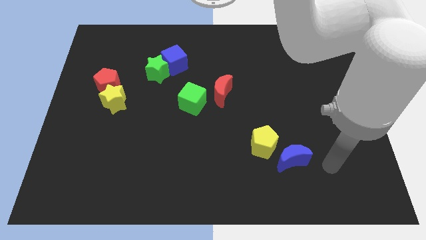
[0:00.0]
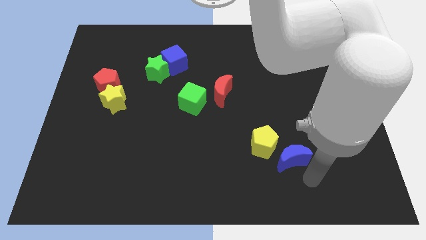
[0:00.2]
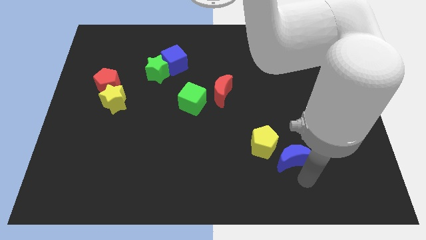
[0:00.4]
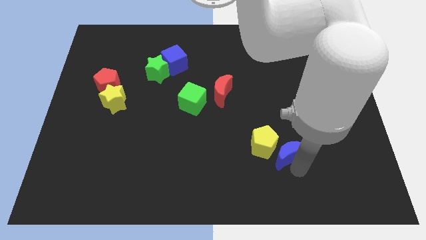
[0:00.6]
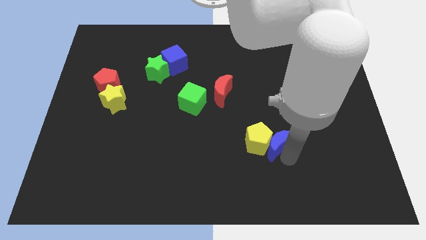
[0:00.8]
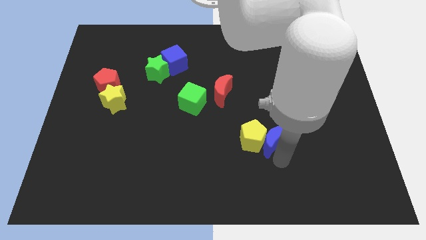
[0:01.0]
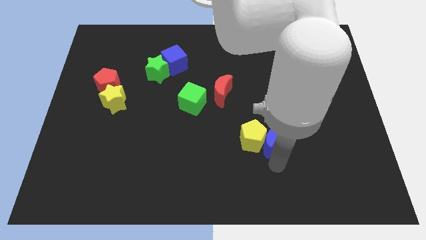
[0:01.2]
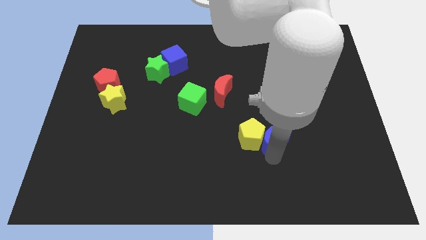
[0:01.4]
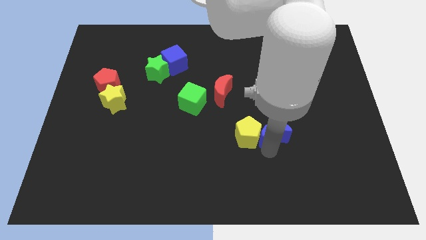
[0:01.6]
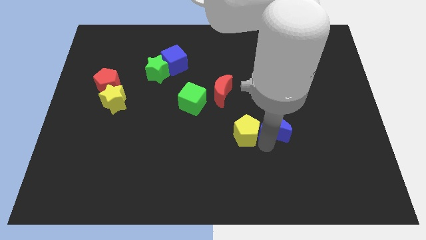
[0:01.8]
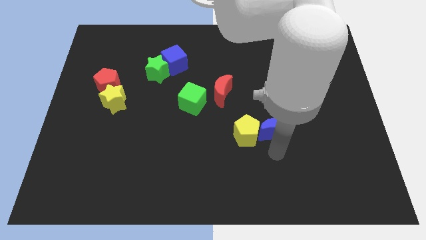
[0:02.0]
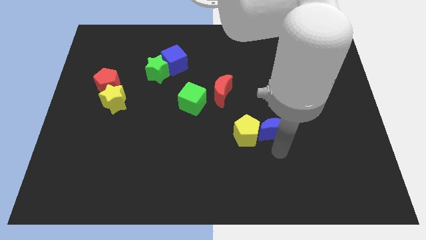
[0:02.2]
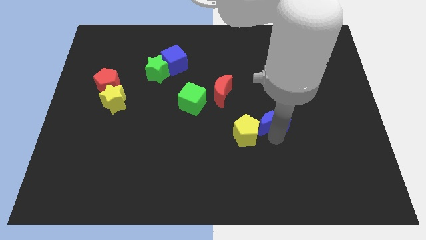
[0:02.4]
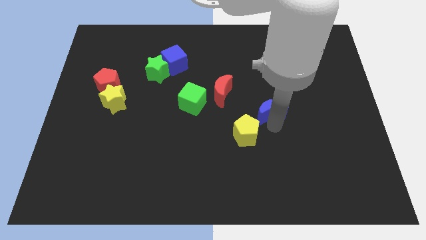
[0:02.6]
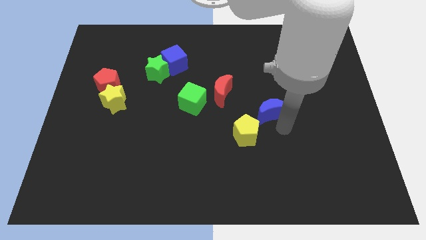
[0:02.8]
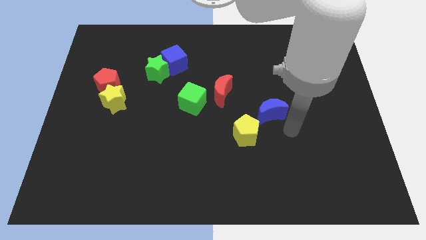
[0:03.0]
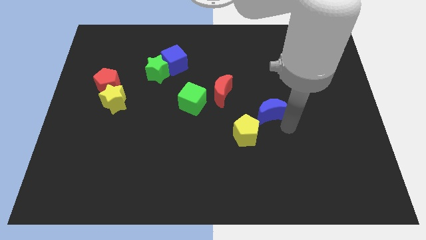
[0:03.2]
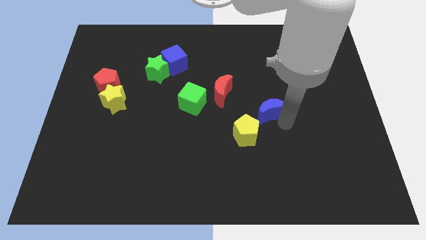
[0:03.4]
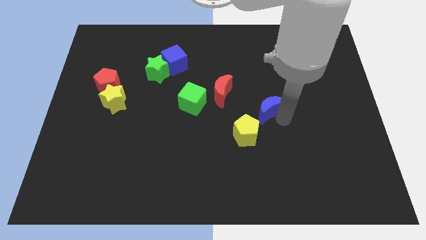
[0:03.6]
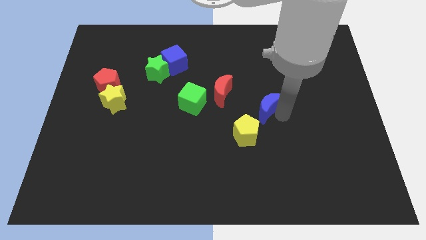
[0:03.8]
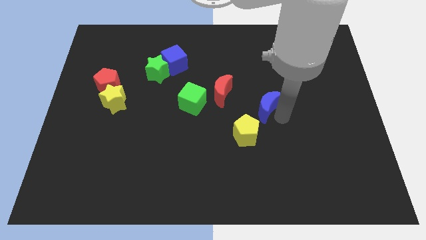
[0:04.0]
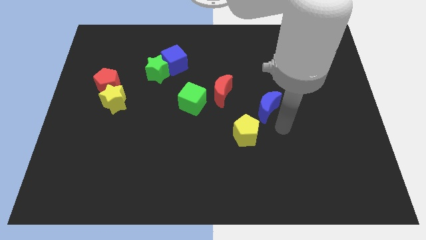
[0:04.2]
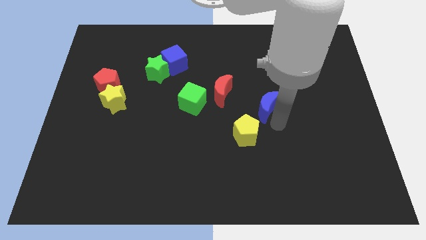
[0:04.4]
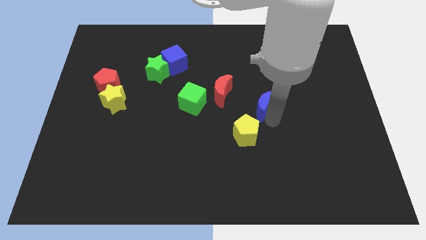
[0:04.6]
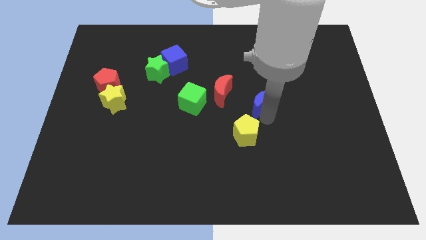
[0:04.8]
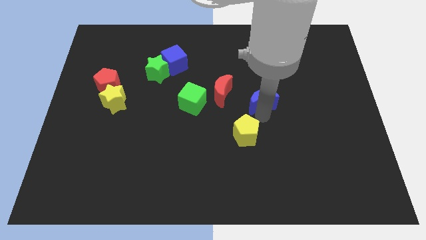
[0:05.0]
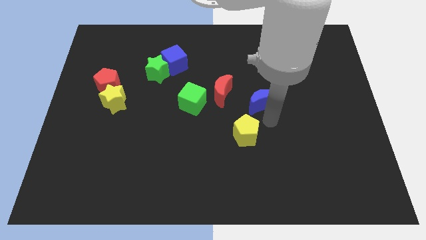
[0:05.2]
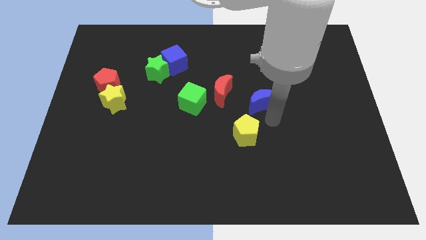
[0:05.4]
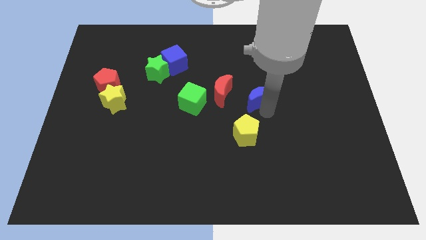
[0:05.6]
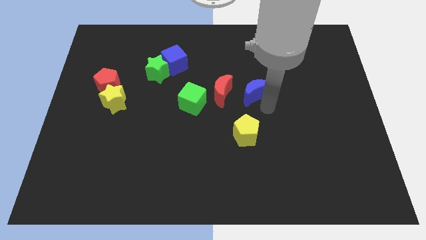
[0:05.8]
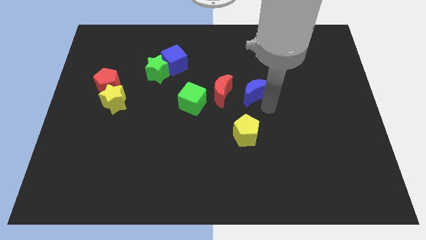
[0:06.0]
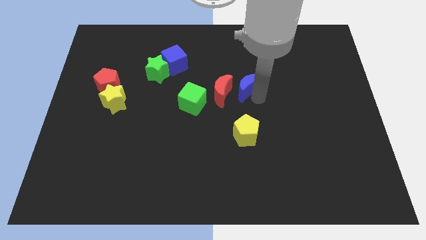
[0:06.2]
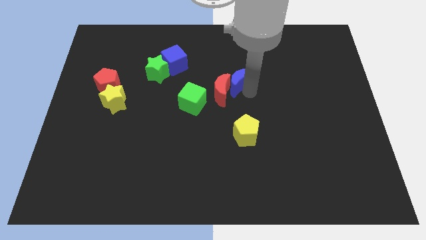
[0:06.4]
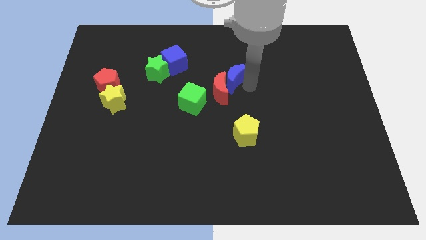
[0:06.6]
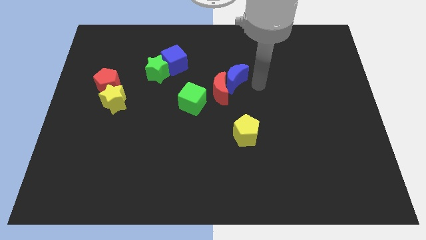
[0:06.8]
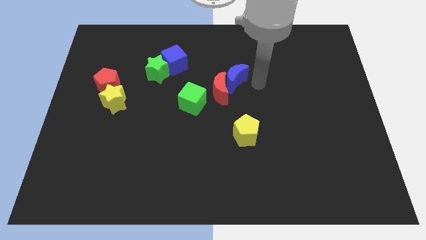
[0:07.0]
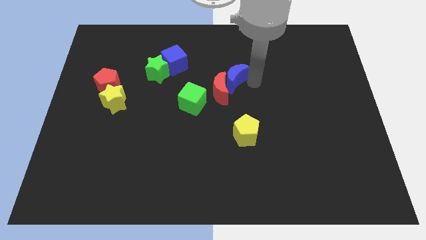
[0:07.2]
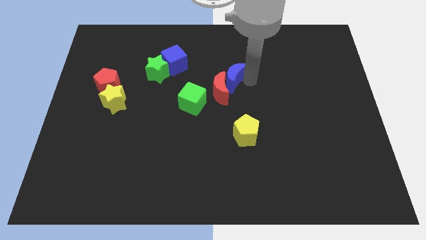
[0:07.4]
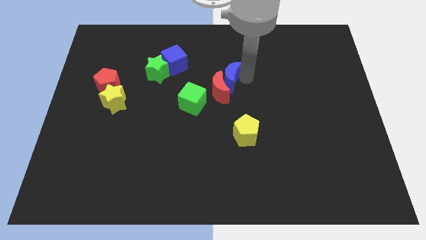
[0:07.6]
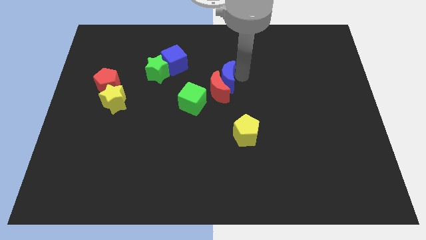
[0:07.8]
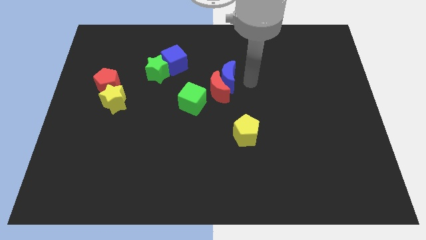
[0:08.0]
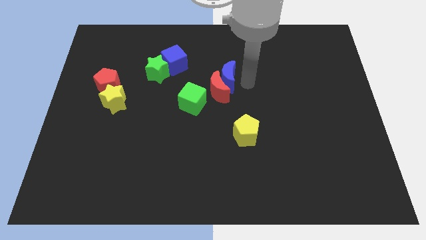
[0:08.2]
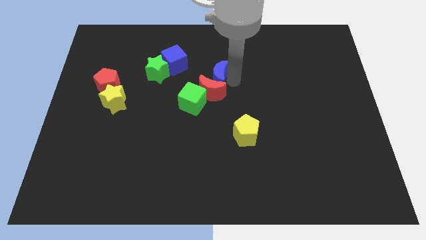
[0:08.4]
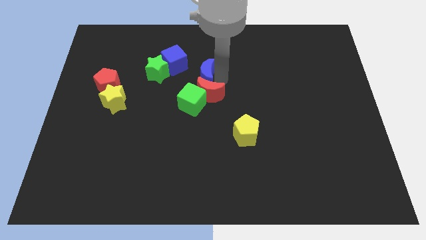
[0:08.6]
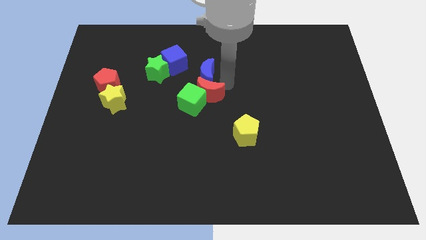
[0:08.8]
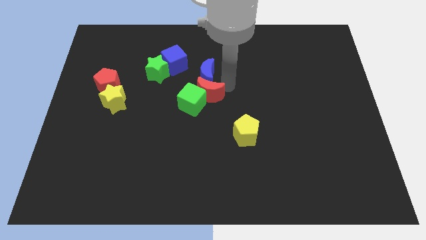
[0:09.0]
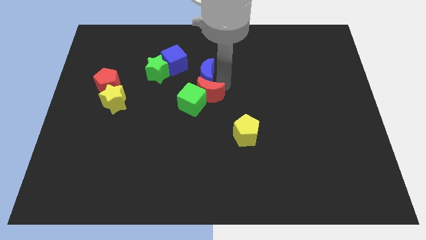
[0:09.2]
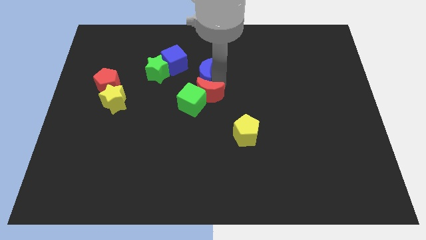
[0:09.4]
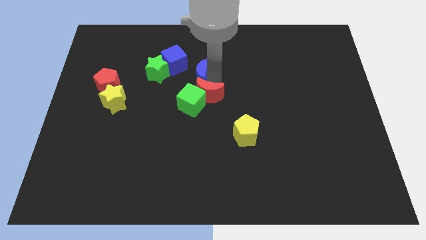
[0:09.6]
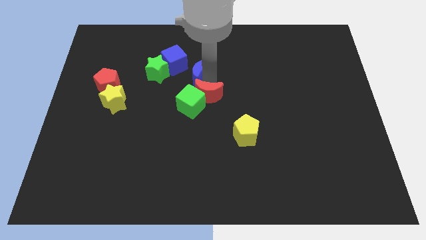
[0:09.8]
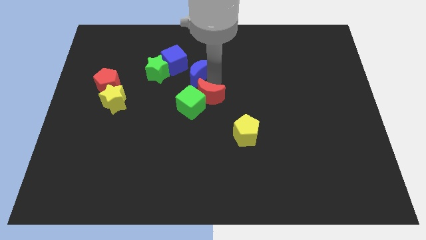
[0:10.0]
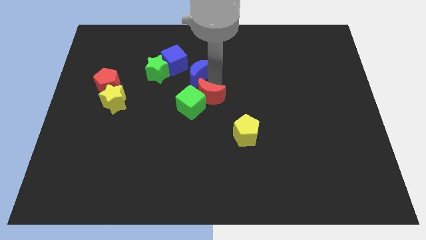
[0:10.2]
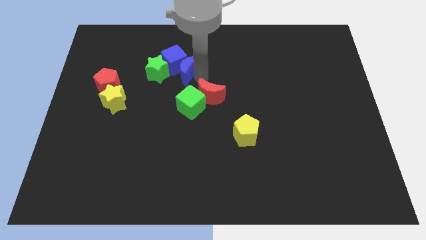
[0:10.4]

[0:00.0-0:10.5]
slide the blue moon next to the blue cube

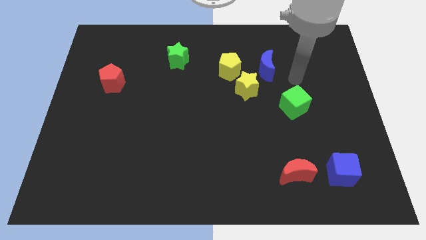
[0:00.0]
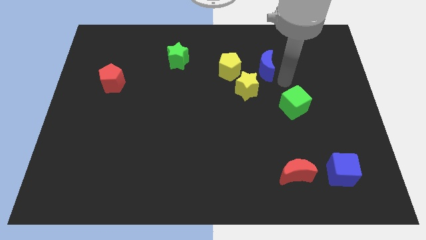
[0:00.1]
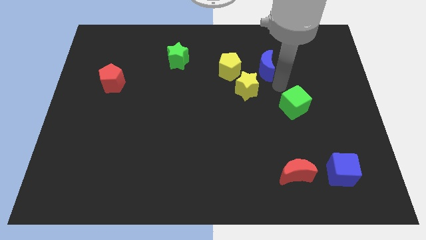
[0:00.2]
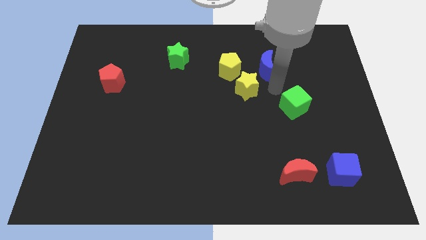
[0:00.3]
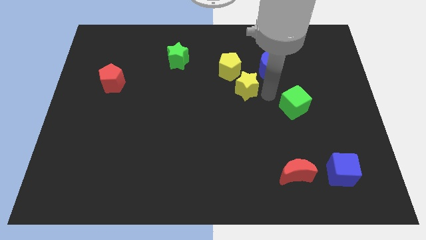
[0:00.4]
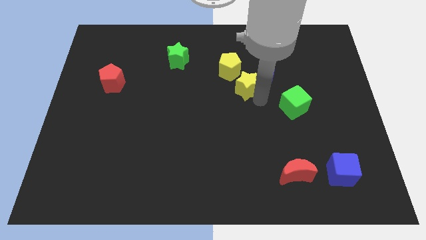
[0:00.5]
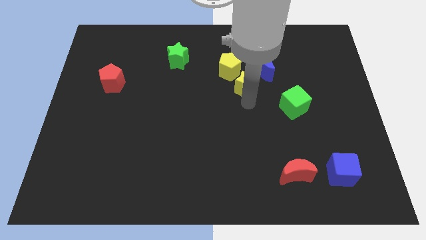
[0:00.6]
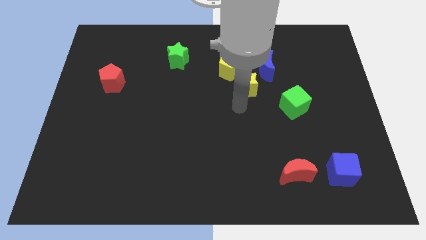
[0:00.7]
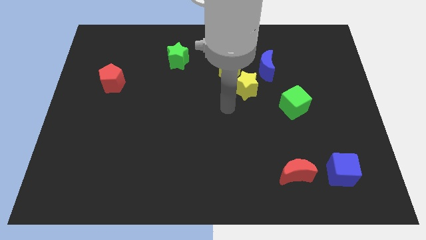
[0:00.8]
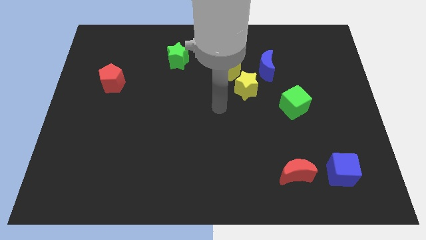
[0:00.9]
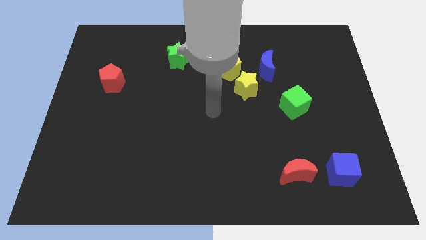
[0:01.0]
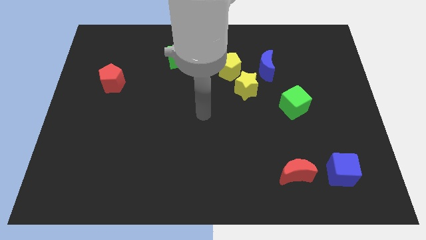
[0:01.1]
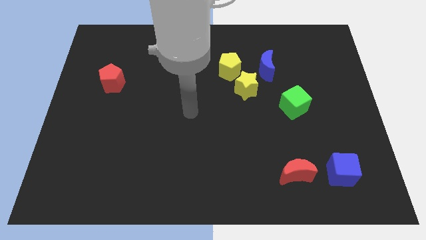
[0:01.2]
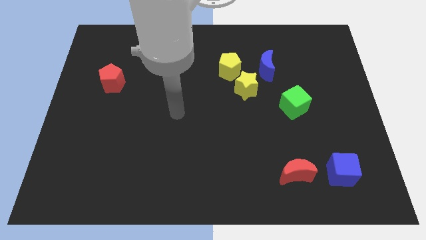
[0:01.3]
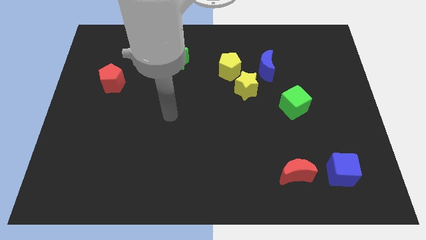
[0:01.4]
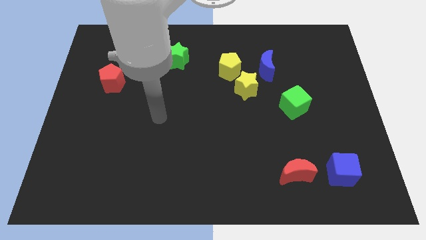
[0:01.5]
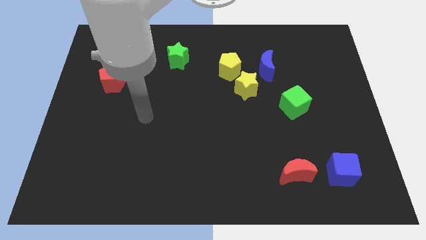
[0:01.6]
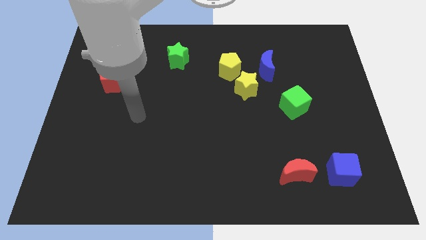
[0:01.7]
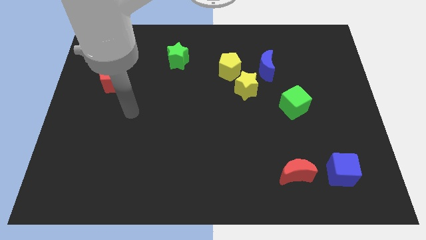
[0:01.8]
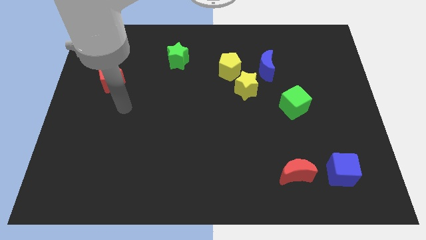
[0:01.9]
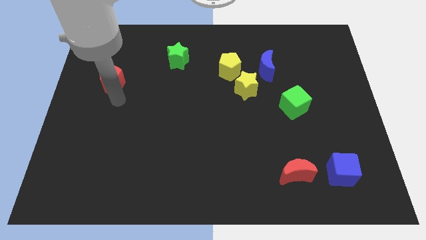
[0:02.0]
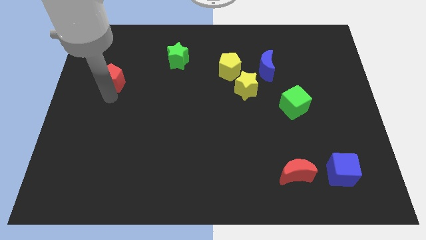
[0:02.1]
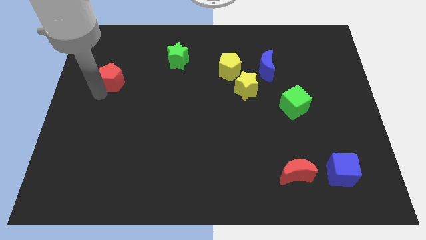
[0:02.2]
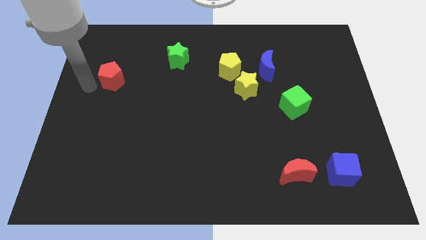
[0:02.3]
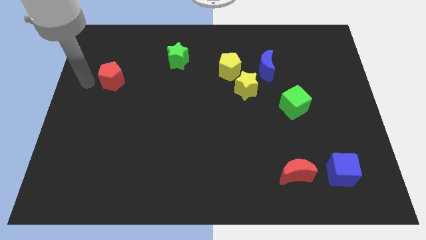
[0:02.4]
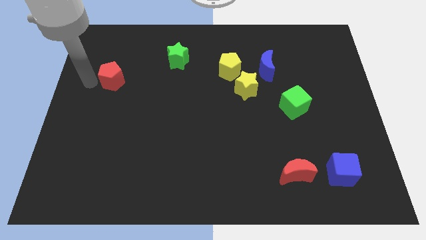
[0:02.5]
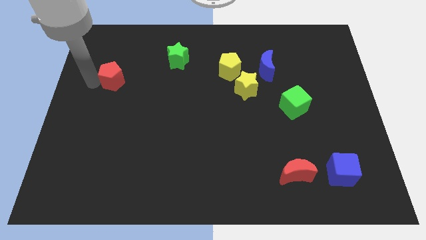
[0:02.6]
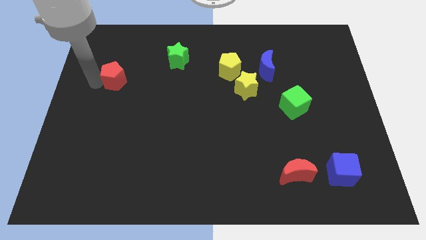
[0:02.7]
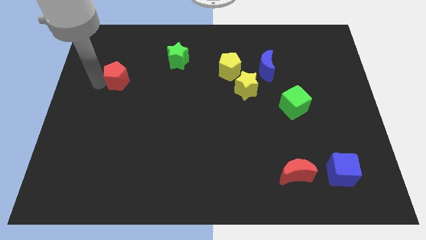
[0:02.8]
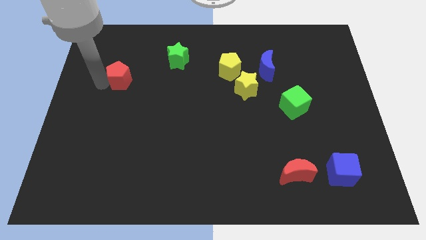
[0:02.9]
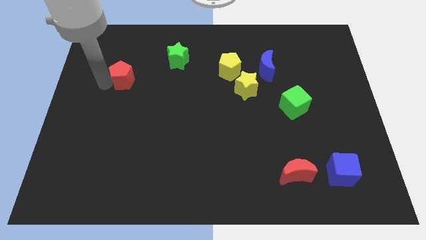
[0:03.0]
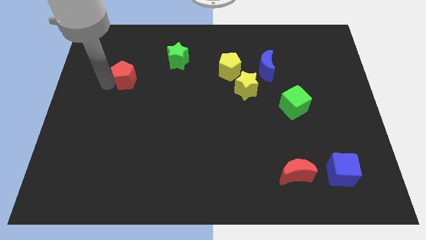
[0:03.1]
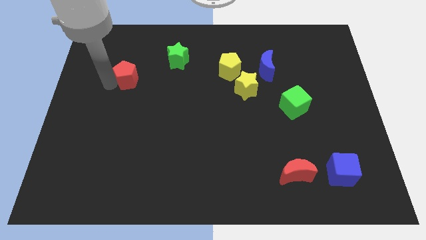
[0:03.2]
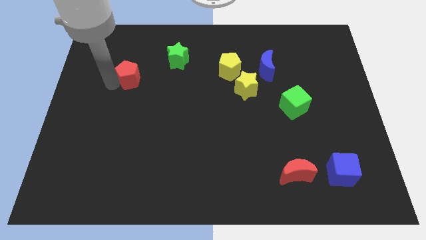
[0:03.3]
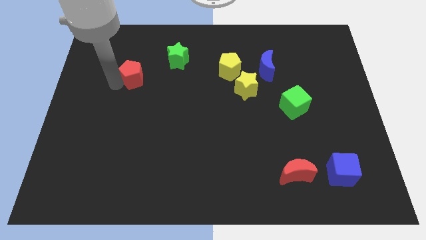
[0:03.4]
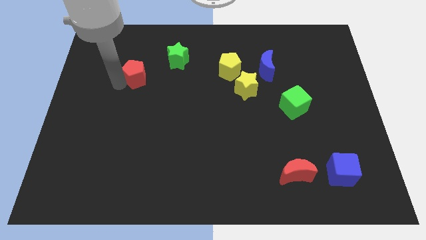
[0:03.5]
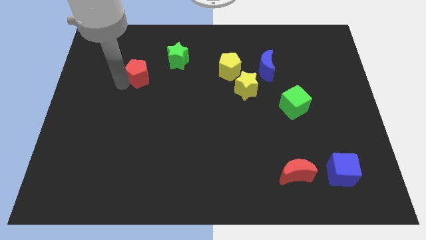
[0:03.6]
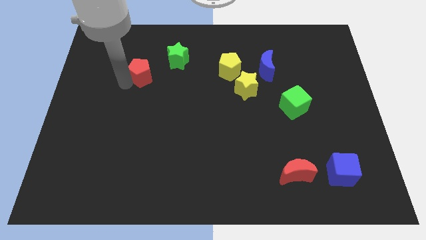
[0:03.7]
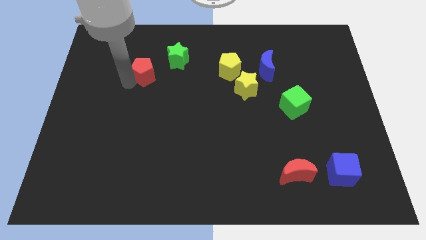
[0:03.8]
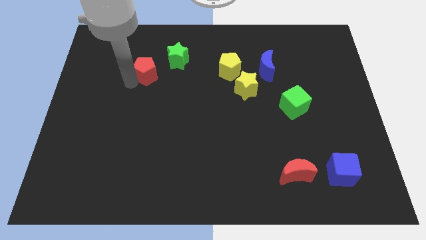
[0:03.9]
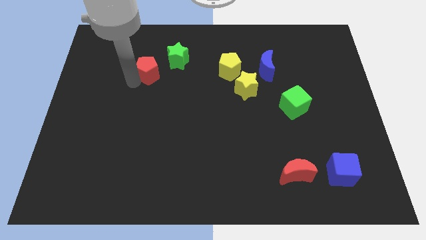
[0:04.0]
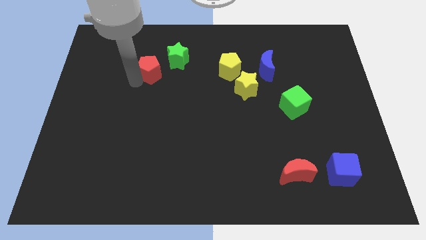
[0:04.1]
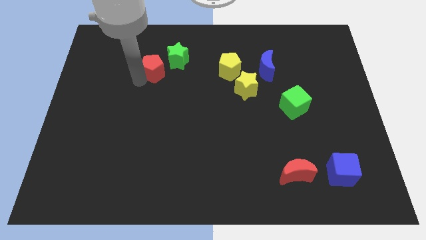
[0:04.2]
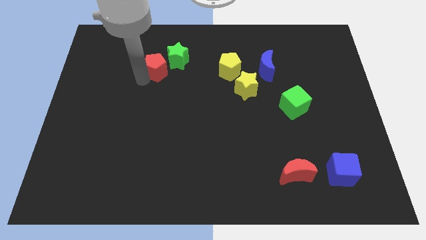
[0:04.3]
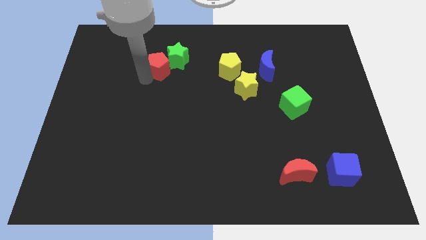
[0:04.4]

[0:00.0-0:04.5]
slide the red pentagon close to the green star
